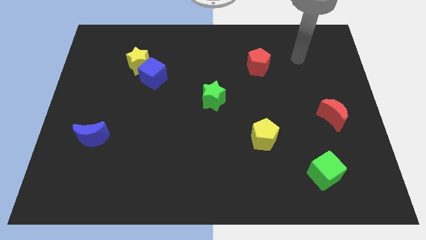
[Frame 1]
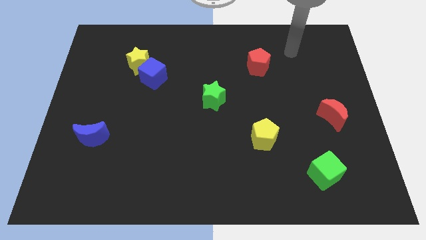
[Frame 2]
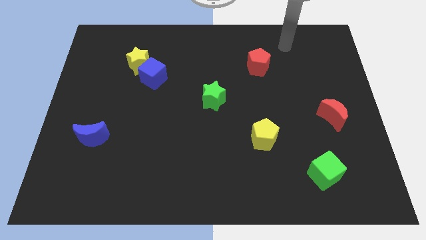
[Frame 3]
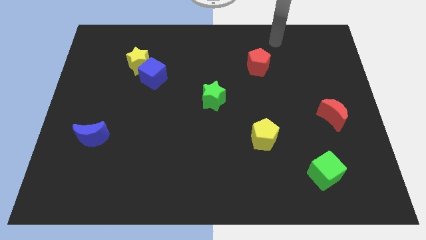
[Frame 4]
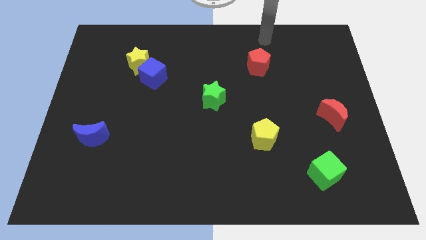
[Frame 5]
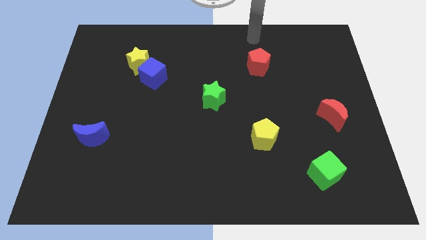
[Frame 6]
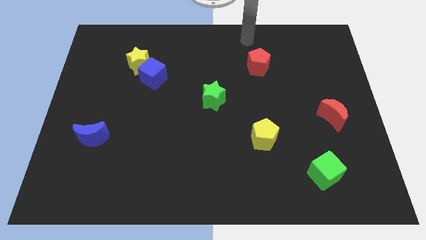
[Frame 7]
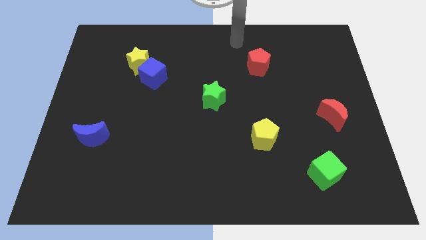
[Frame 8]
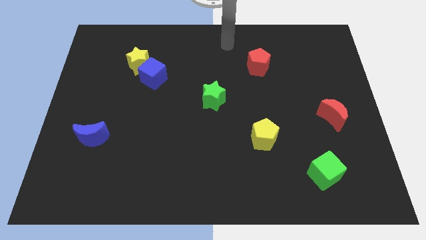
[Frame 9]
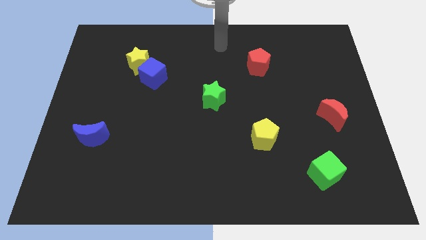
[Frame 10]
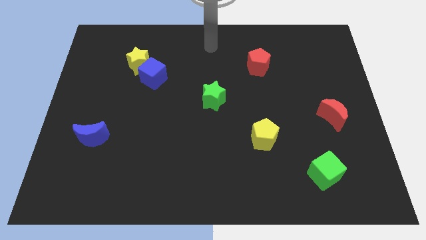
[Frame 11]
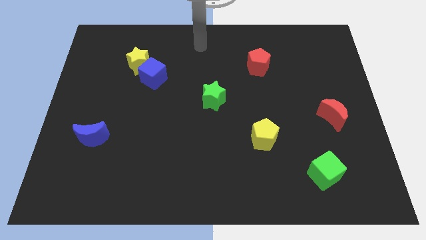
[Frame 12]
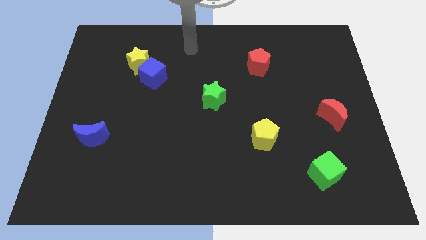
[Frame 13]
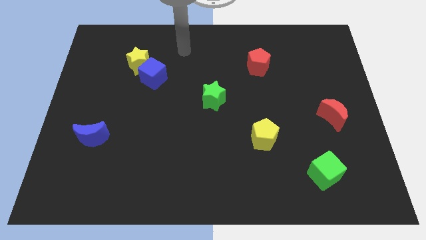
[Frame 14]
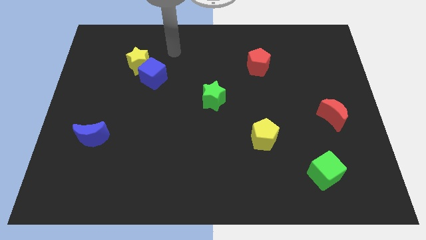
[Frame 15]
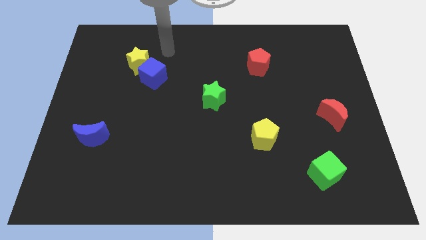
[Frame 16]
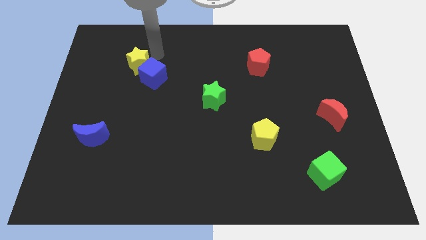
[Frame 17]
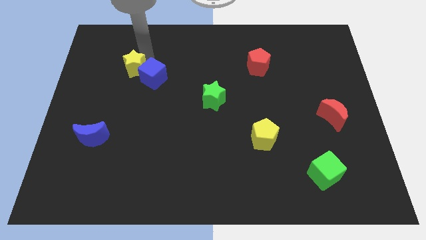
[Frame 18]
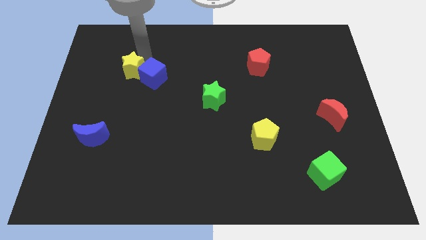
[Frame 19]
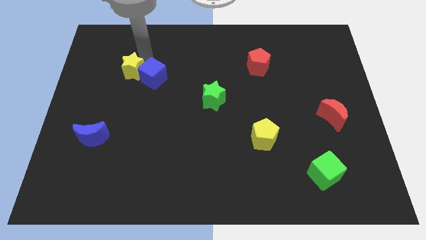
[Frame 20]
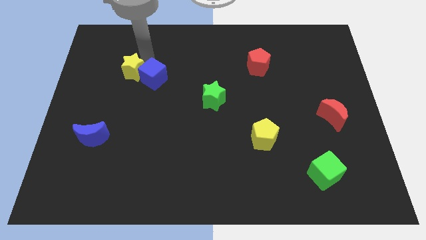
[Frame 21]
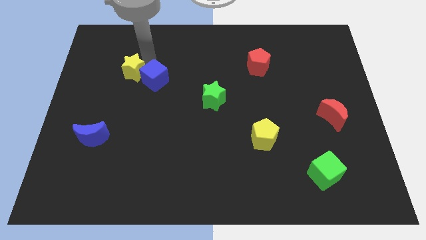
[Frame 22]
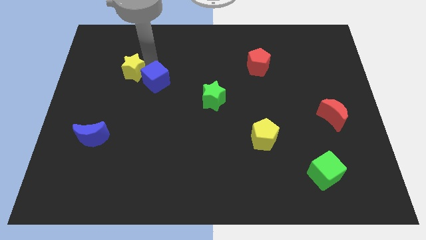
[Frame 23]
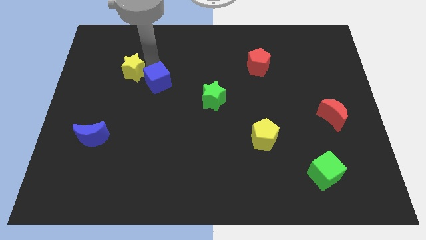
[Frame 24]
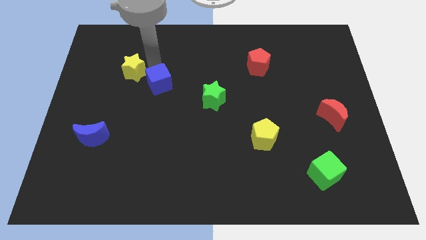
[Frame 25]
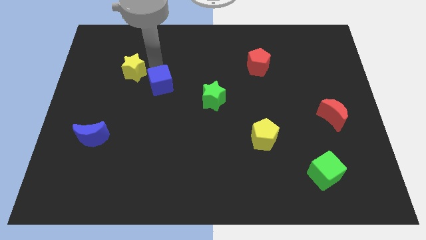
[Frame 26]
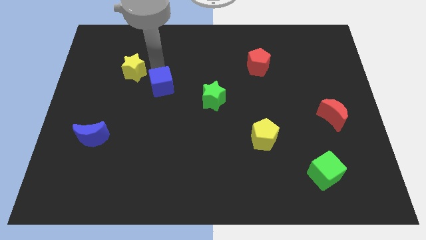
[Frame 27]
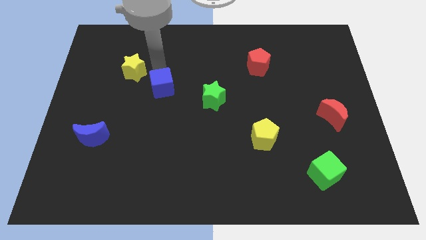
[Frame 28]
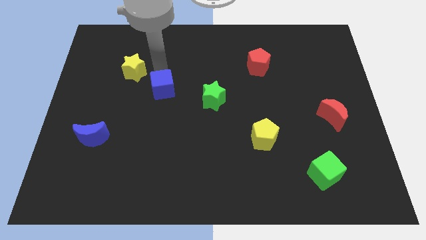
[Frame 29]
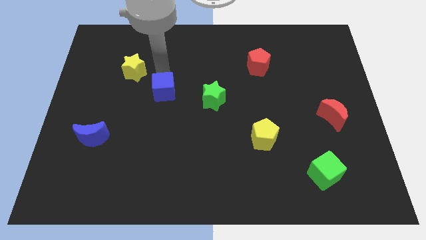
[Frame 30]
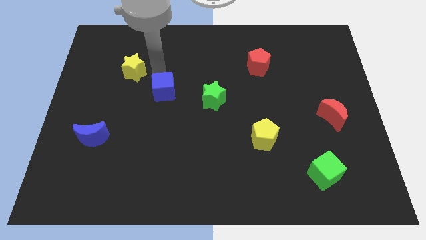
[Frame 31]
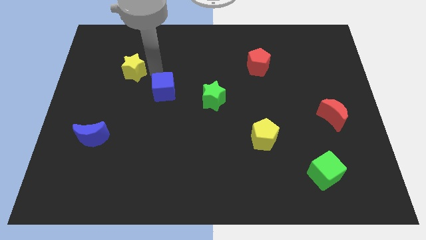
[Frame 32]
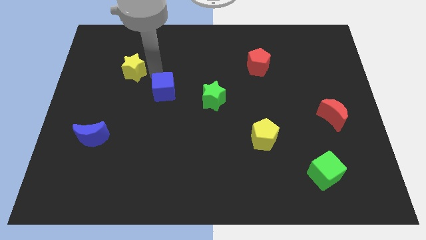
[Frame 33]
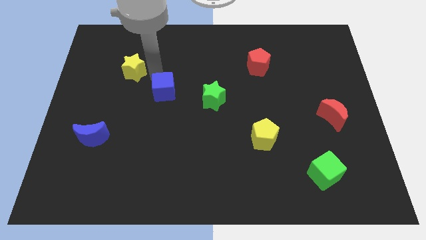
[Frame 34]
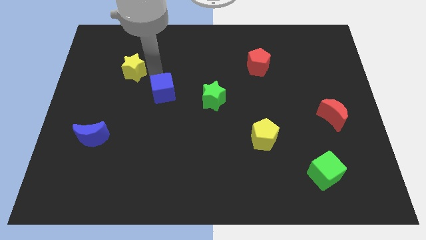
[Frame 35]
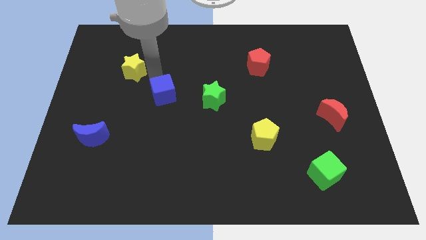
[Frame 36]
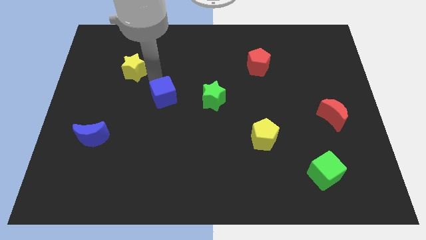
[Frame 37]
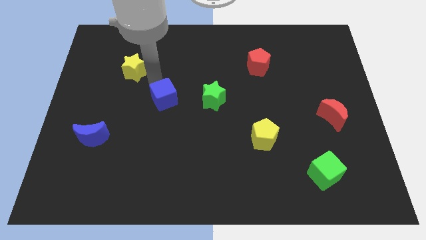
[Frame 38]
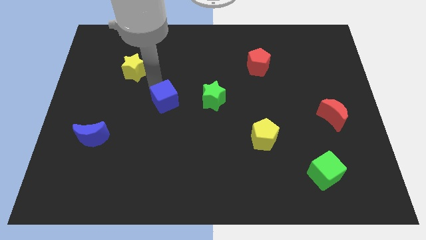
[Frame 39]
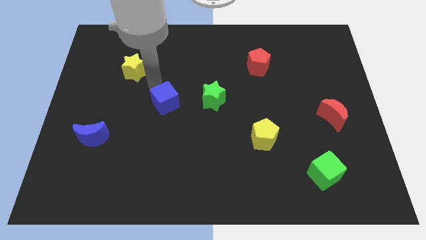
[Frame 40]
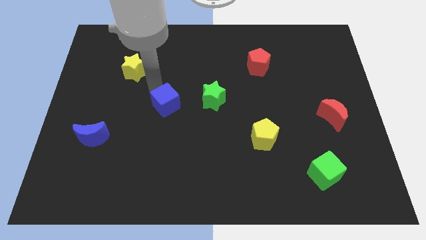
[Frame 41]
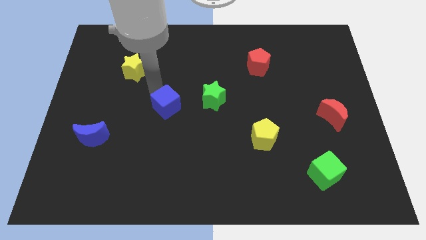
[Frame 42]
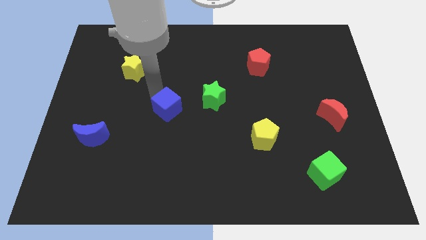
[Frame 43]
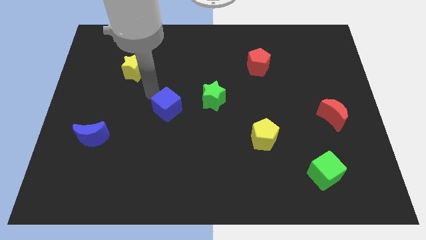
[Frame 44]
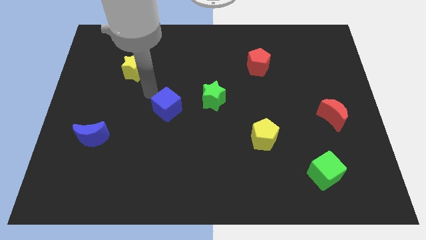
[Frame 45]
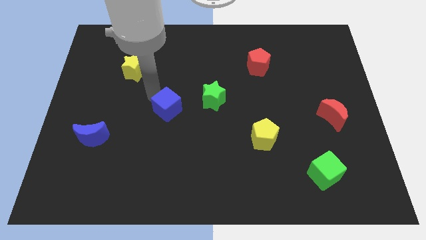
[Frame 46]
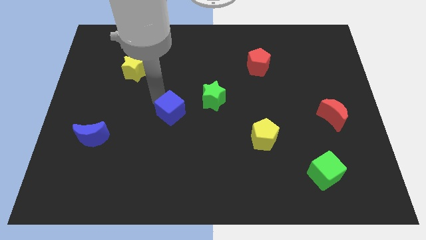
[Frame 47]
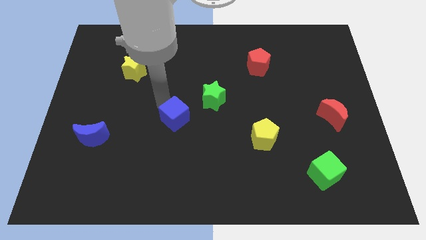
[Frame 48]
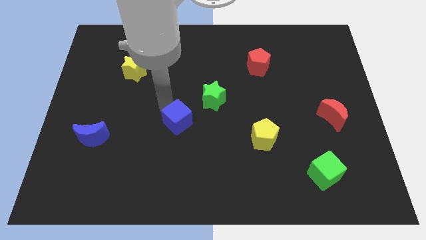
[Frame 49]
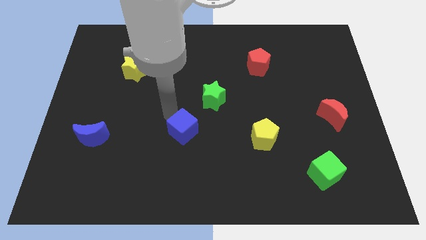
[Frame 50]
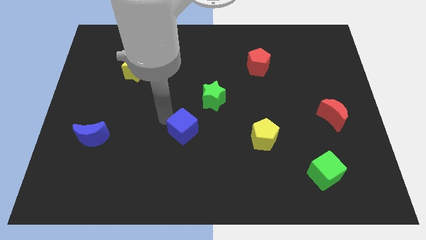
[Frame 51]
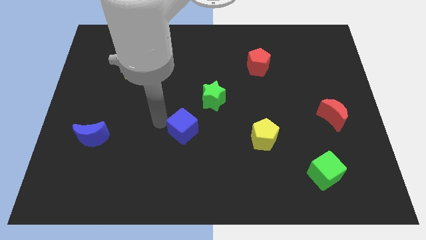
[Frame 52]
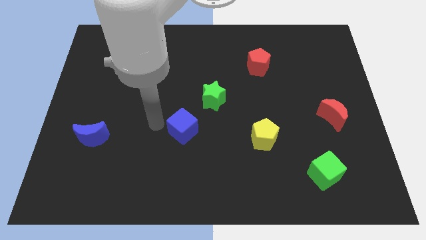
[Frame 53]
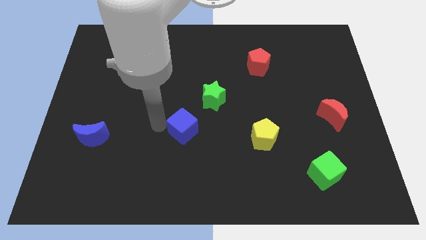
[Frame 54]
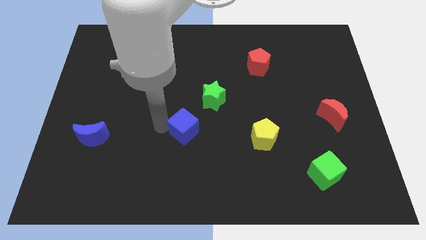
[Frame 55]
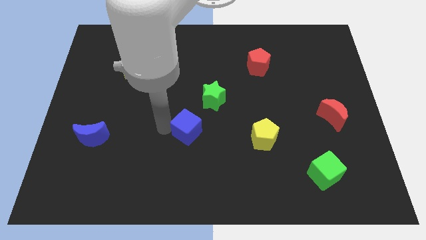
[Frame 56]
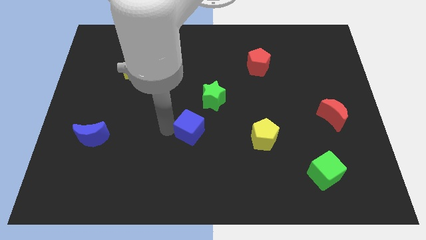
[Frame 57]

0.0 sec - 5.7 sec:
slide the blue cube to the bottom side of the green star
